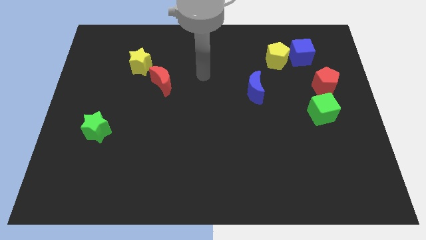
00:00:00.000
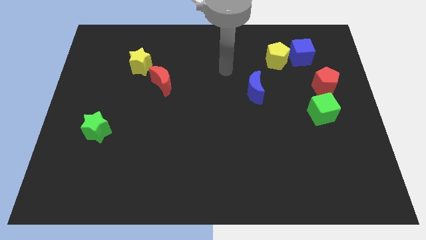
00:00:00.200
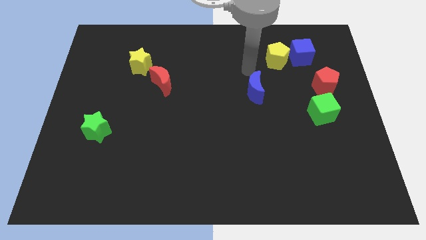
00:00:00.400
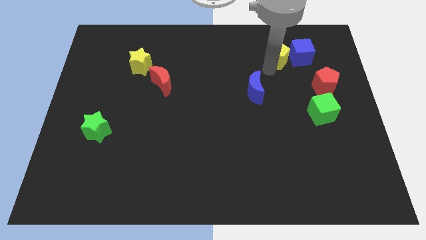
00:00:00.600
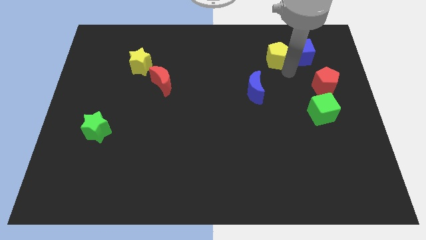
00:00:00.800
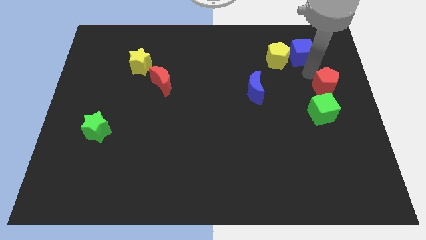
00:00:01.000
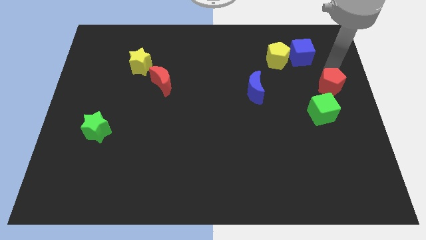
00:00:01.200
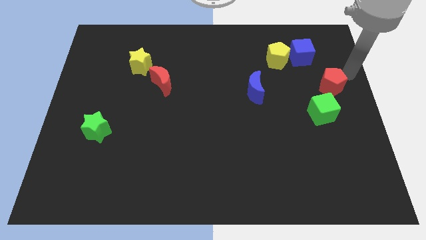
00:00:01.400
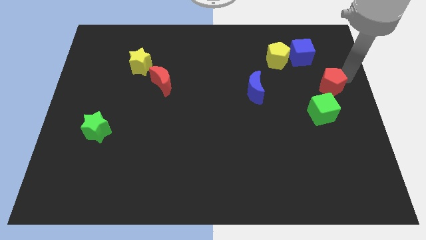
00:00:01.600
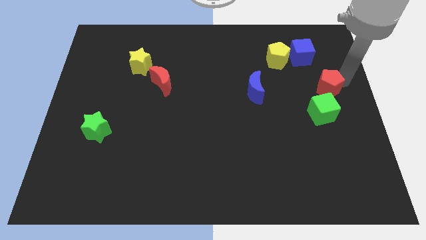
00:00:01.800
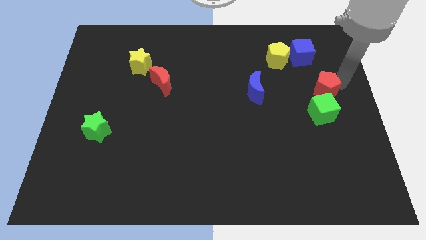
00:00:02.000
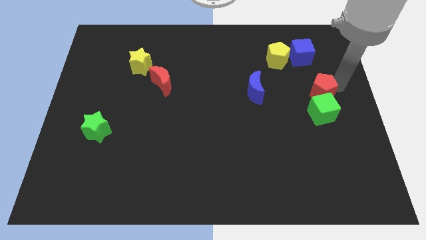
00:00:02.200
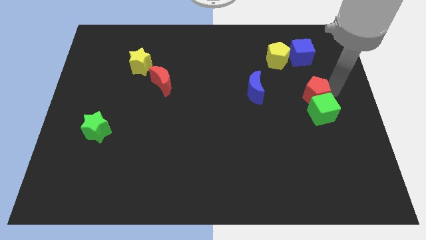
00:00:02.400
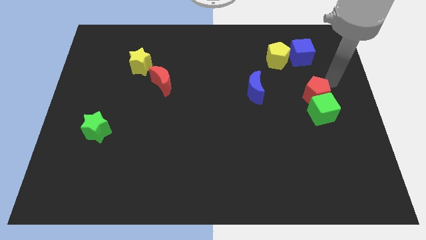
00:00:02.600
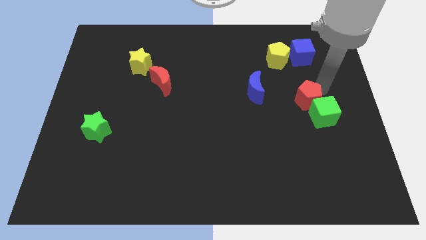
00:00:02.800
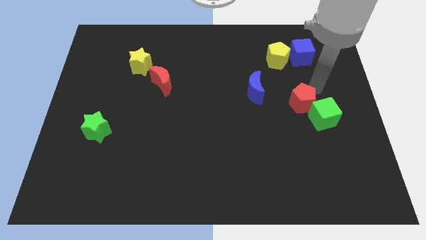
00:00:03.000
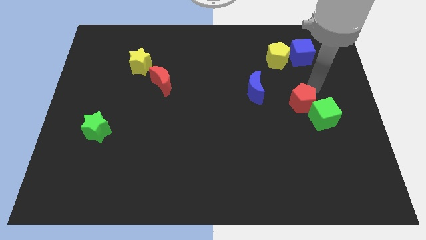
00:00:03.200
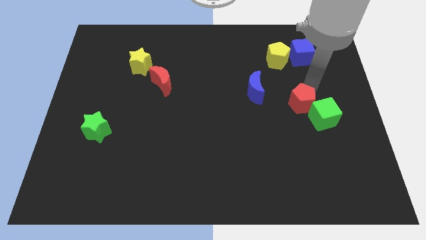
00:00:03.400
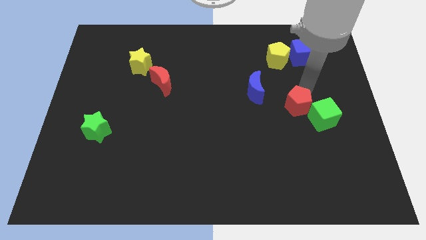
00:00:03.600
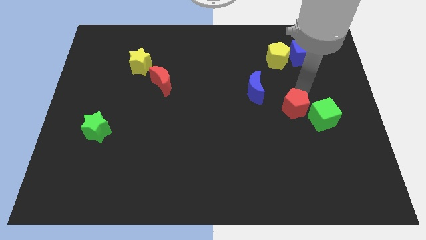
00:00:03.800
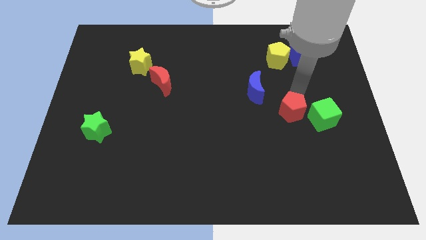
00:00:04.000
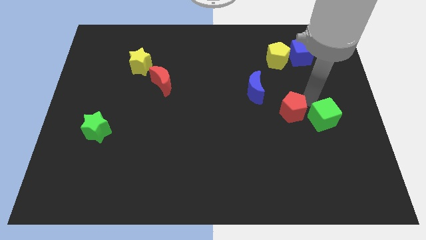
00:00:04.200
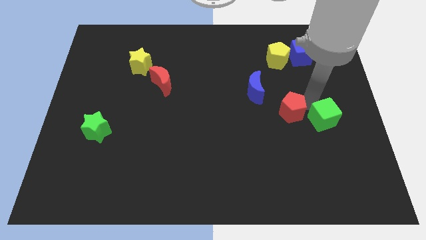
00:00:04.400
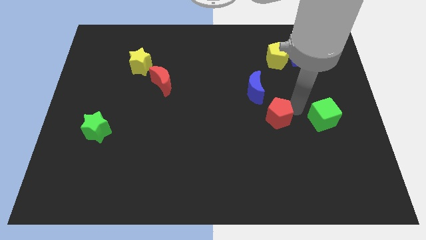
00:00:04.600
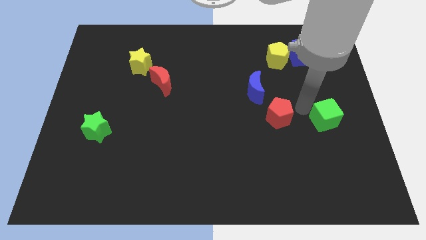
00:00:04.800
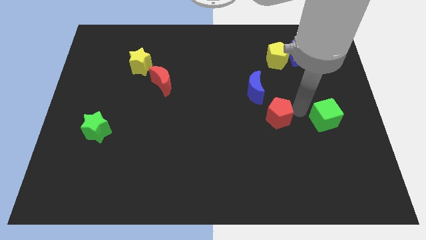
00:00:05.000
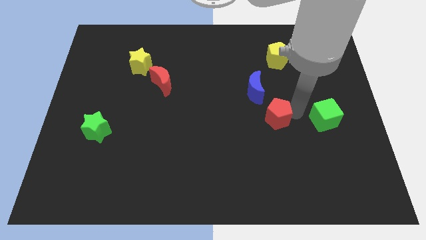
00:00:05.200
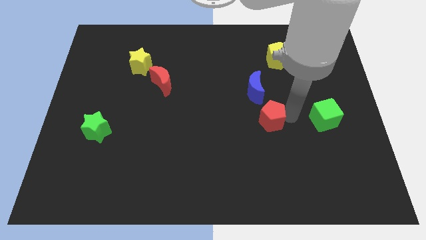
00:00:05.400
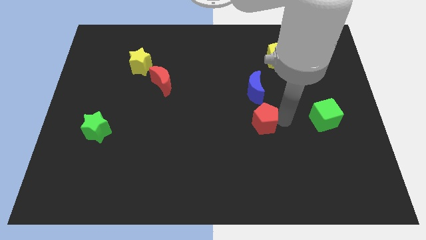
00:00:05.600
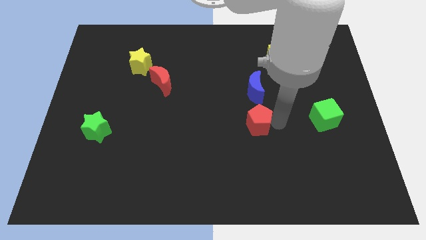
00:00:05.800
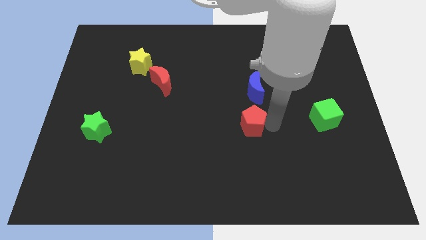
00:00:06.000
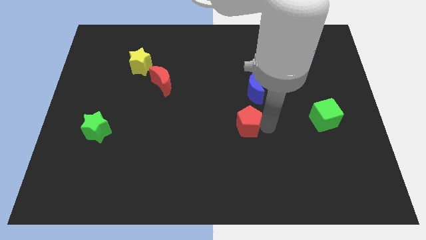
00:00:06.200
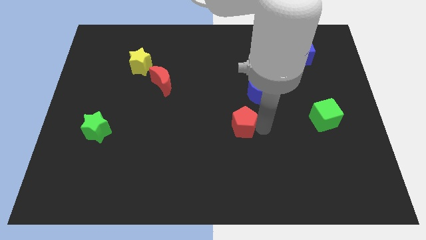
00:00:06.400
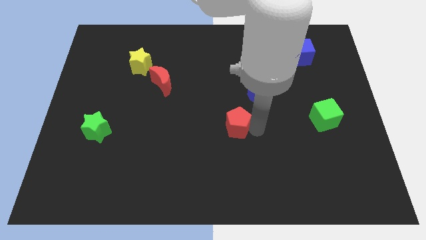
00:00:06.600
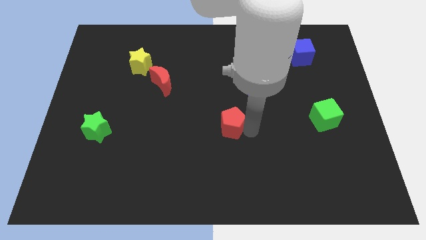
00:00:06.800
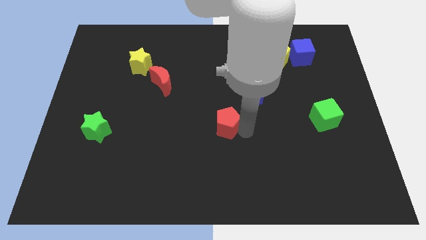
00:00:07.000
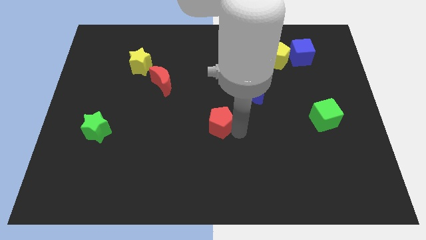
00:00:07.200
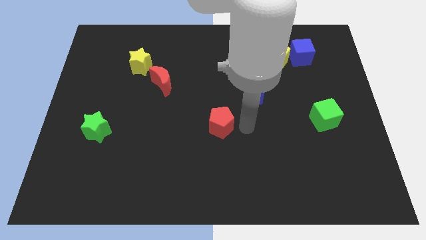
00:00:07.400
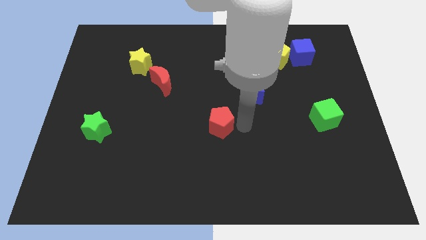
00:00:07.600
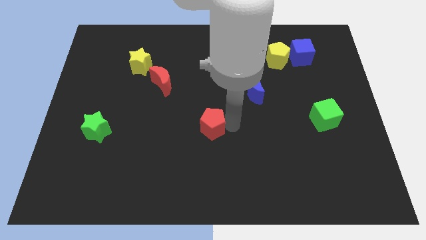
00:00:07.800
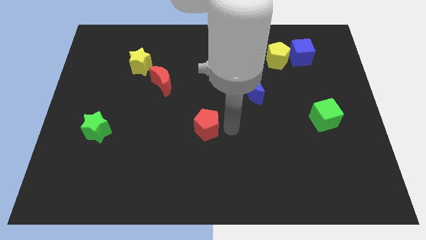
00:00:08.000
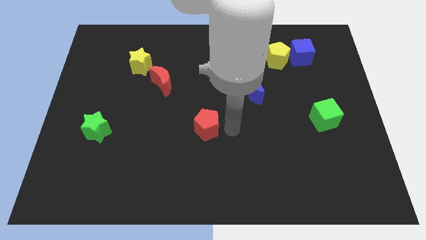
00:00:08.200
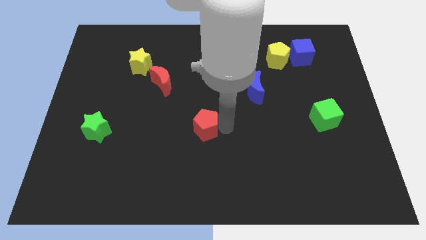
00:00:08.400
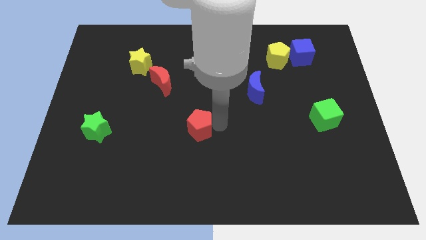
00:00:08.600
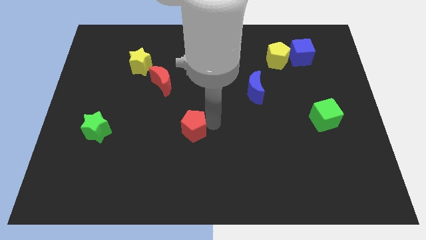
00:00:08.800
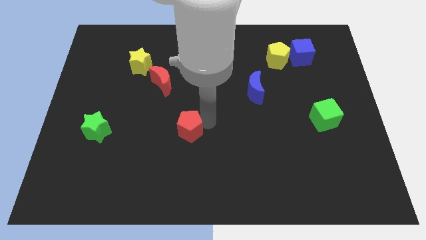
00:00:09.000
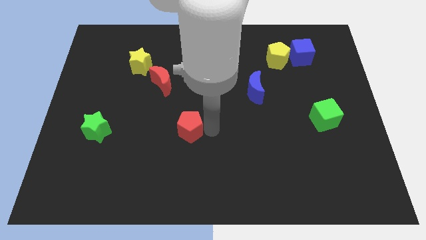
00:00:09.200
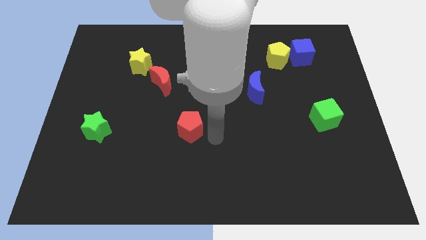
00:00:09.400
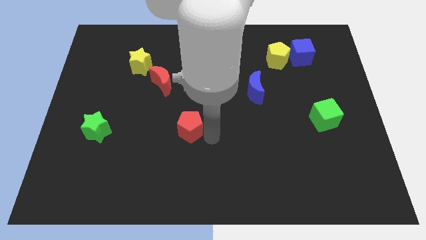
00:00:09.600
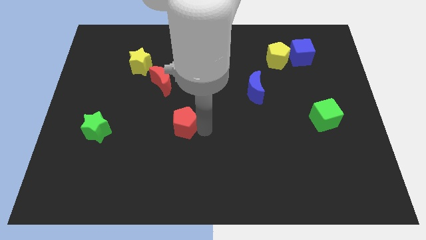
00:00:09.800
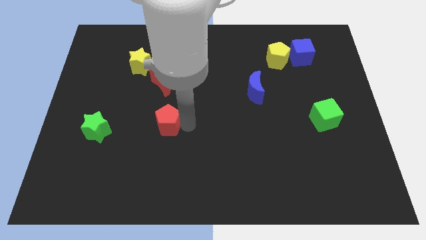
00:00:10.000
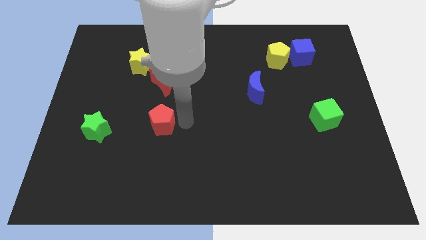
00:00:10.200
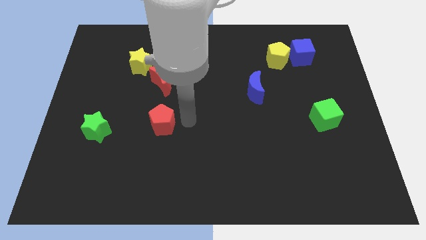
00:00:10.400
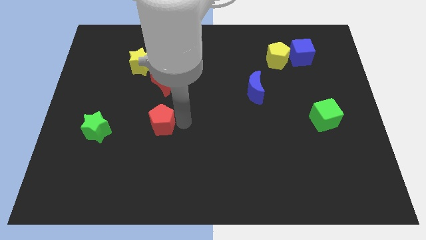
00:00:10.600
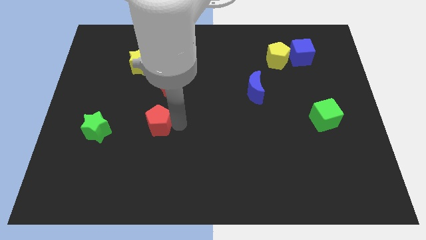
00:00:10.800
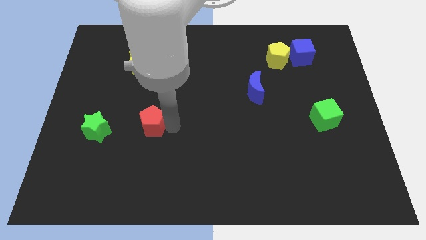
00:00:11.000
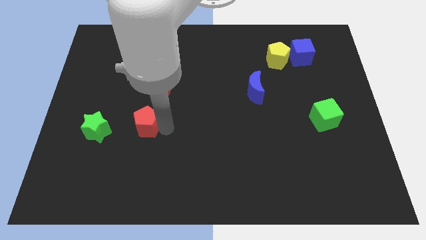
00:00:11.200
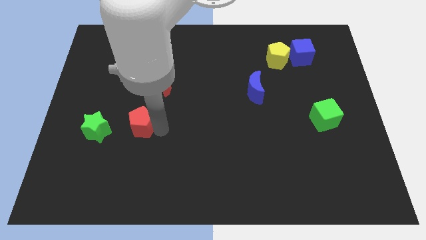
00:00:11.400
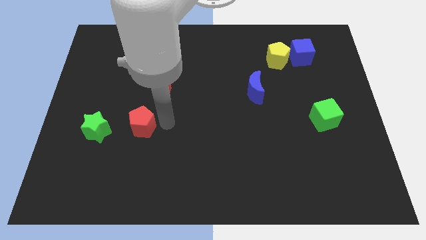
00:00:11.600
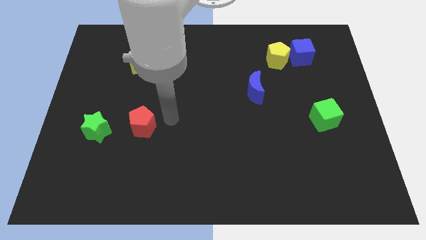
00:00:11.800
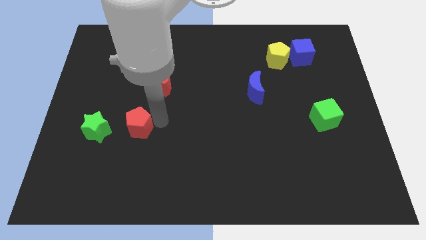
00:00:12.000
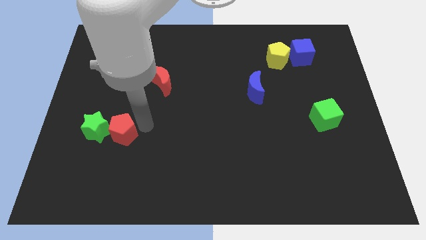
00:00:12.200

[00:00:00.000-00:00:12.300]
push the red pentagon to the green star
